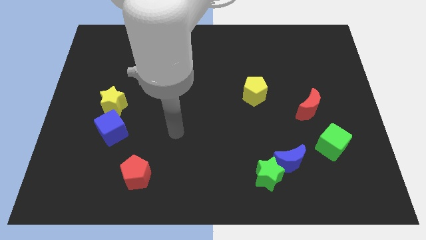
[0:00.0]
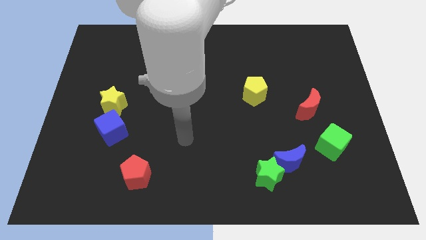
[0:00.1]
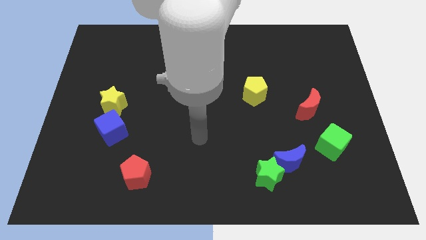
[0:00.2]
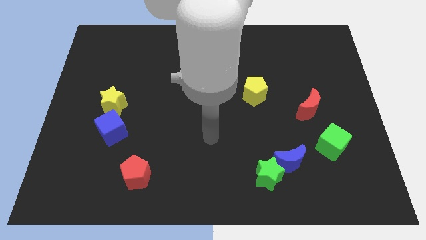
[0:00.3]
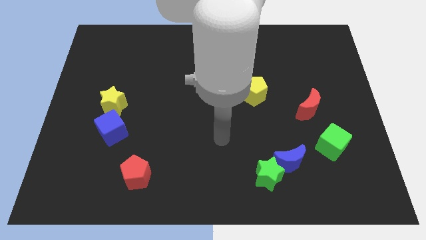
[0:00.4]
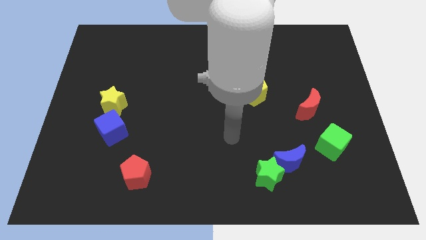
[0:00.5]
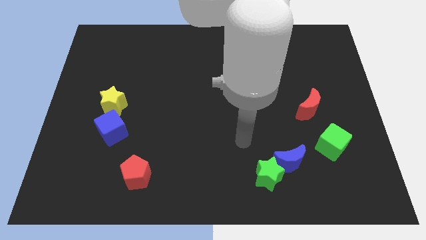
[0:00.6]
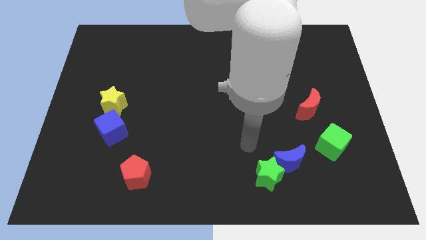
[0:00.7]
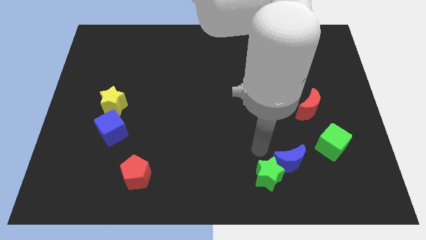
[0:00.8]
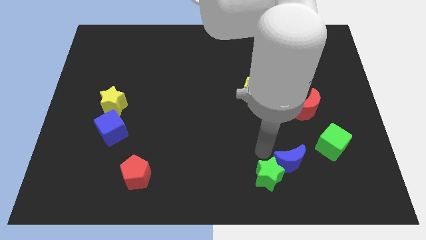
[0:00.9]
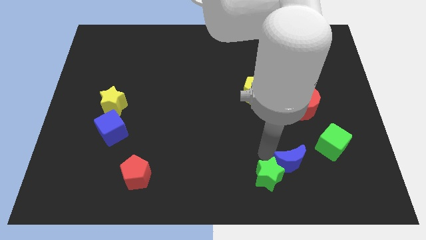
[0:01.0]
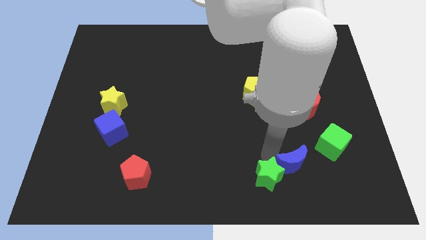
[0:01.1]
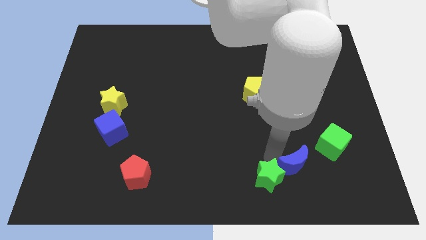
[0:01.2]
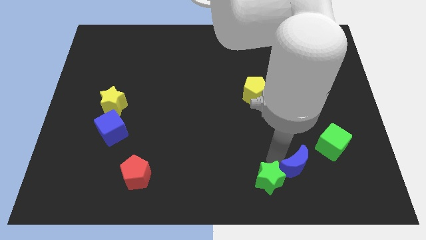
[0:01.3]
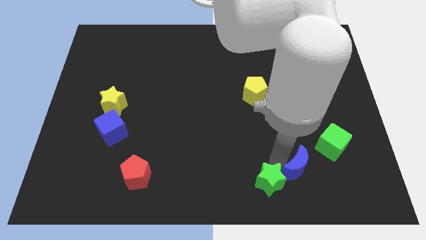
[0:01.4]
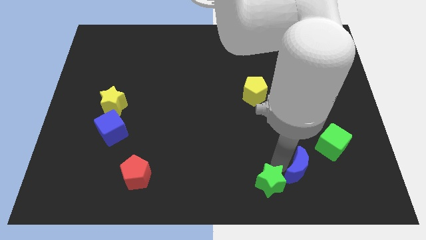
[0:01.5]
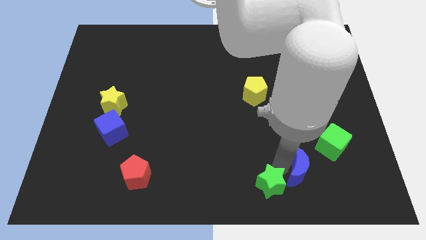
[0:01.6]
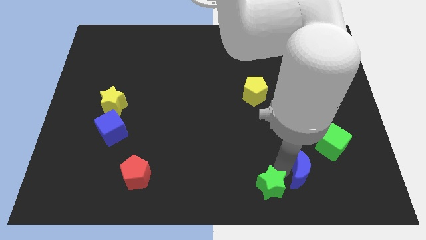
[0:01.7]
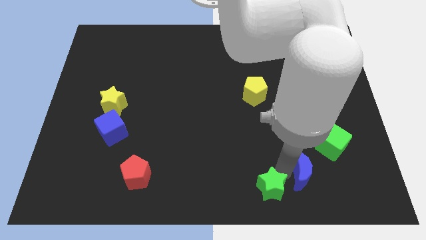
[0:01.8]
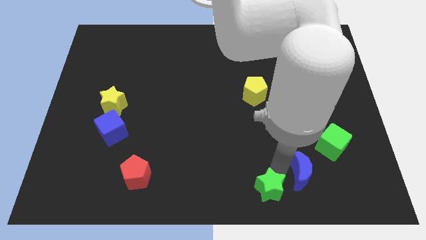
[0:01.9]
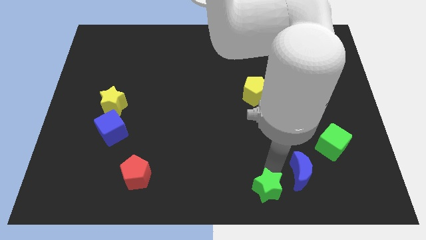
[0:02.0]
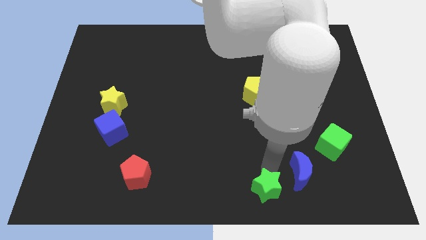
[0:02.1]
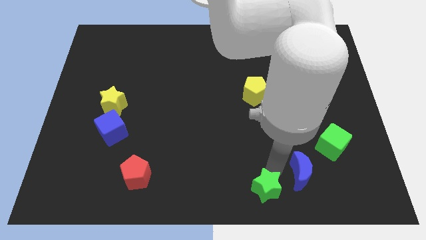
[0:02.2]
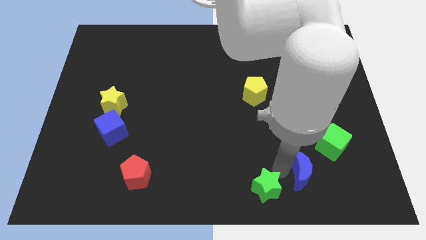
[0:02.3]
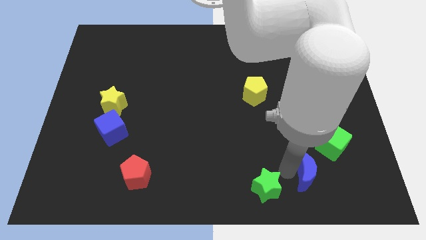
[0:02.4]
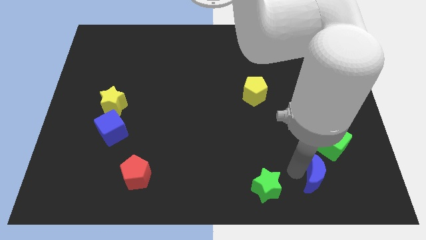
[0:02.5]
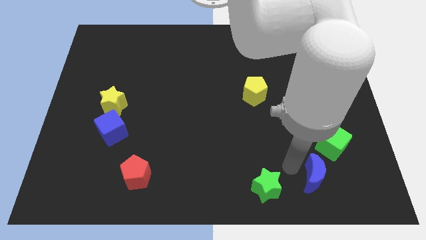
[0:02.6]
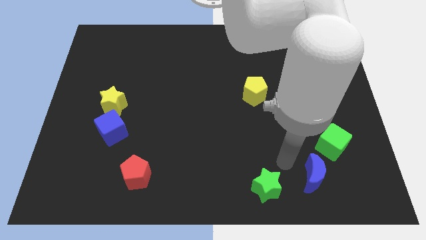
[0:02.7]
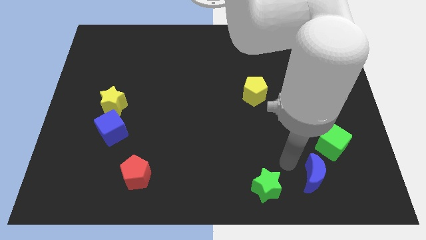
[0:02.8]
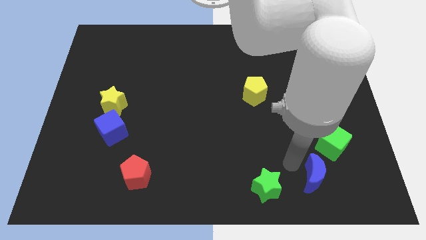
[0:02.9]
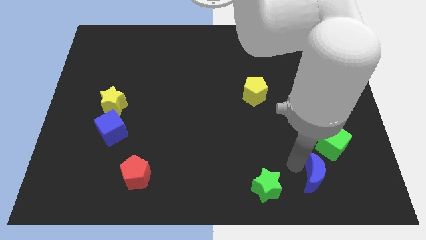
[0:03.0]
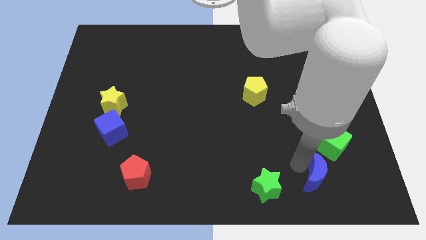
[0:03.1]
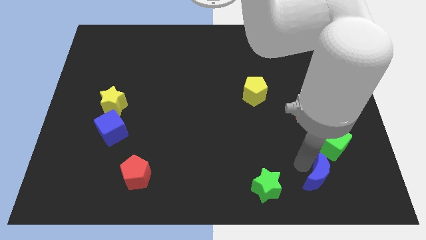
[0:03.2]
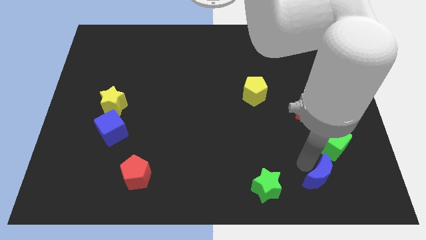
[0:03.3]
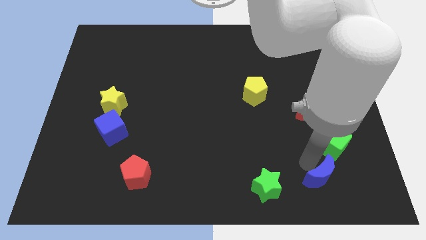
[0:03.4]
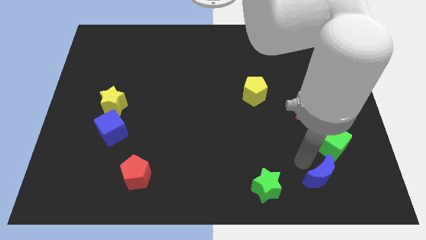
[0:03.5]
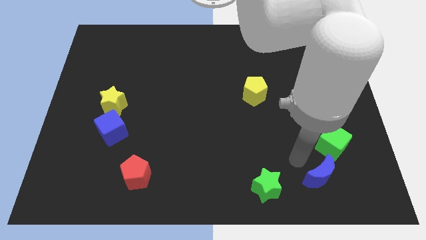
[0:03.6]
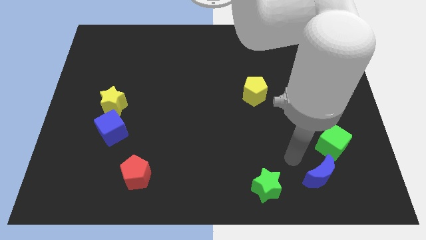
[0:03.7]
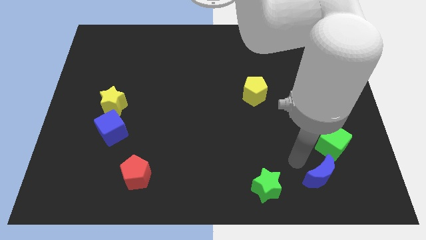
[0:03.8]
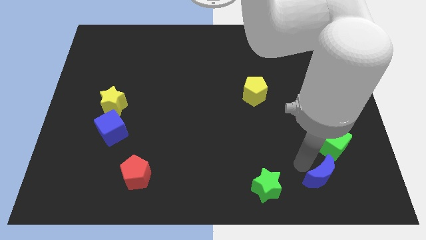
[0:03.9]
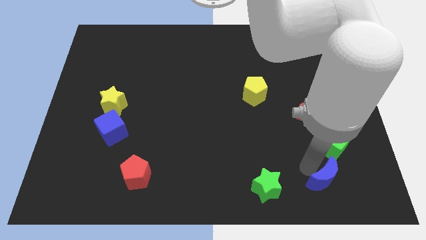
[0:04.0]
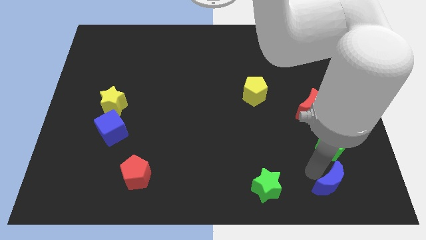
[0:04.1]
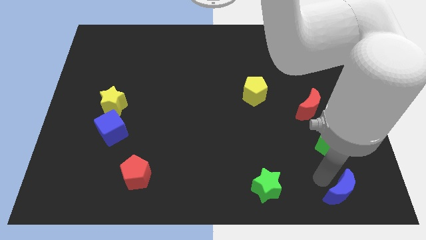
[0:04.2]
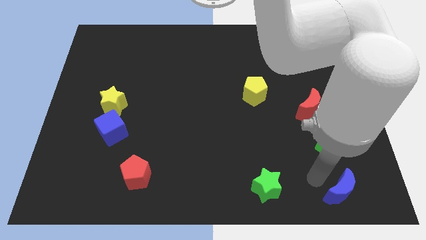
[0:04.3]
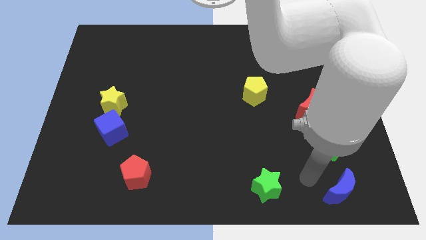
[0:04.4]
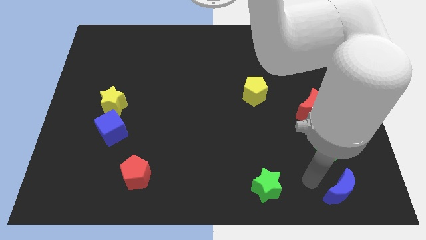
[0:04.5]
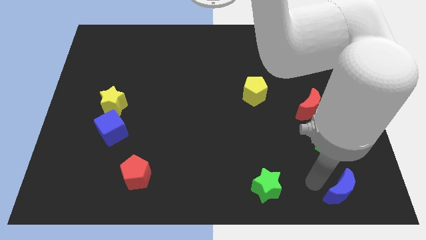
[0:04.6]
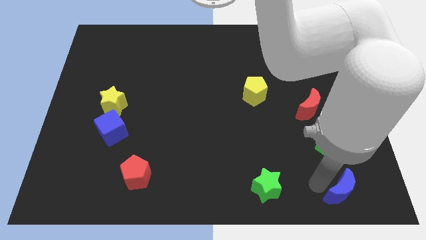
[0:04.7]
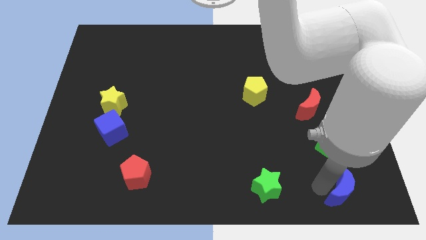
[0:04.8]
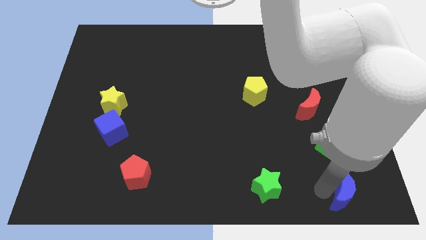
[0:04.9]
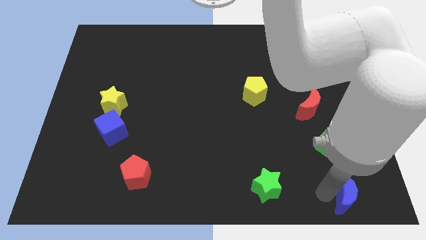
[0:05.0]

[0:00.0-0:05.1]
push the blue moon to the bottom right of the board

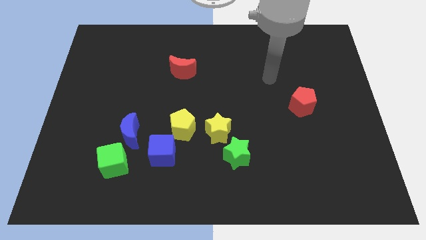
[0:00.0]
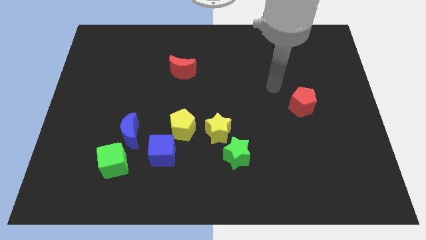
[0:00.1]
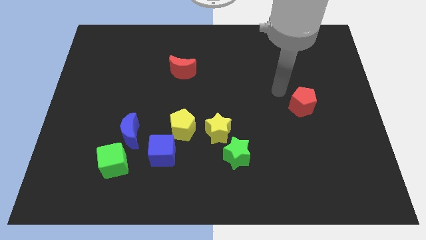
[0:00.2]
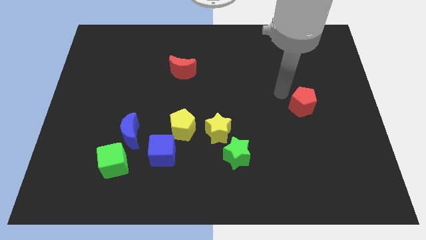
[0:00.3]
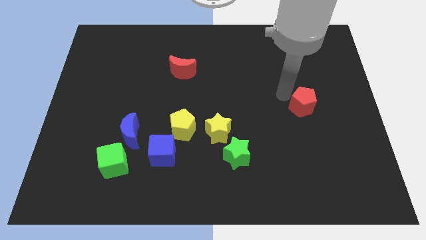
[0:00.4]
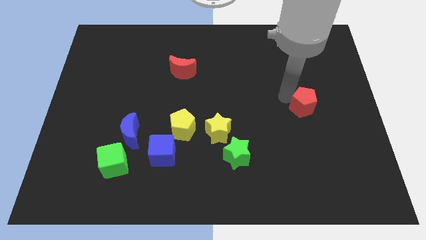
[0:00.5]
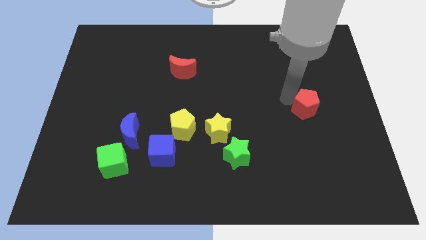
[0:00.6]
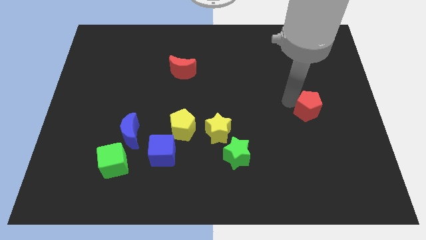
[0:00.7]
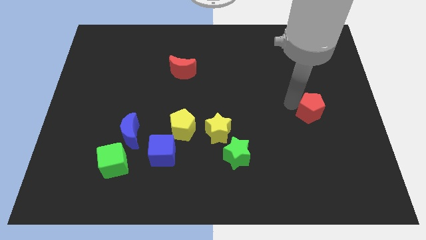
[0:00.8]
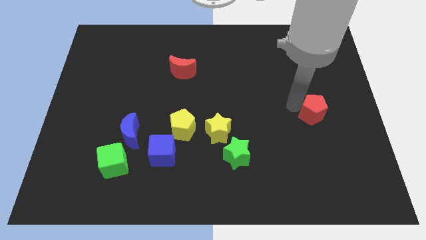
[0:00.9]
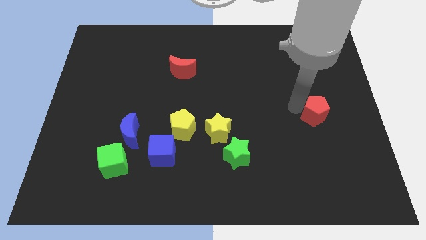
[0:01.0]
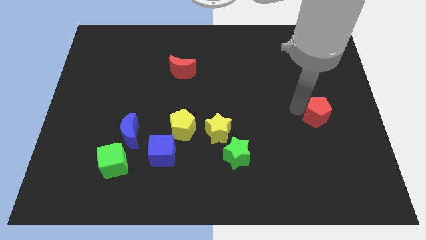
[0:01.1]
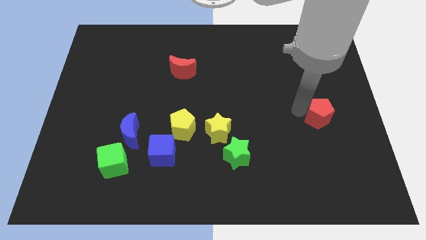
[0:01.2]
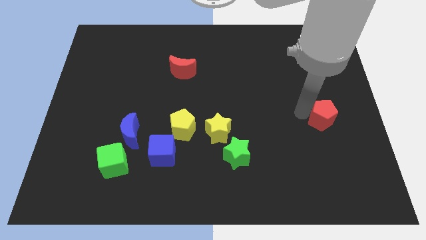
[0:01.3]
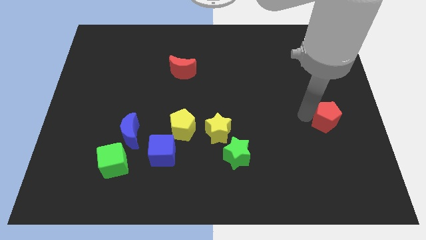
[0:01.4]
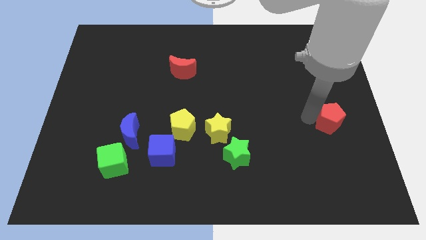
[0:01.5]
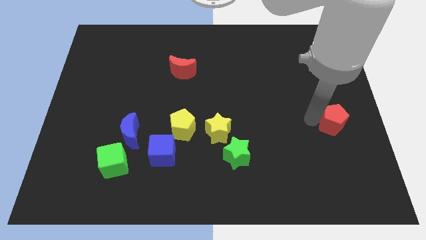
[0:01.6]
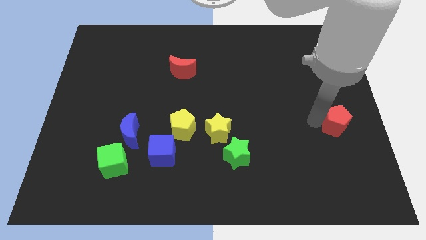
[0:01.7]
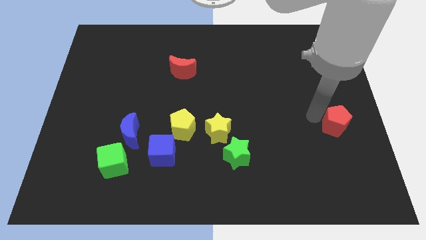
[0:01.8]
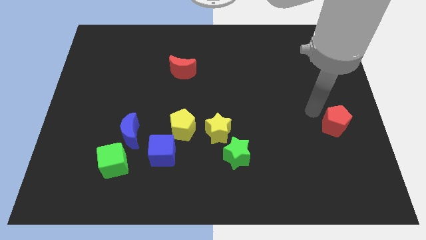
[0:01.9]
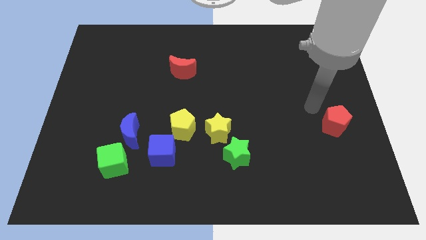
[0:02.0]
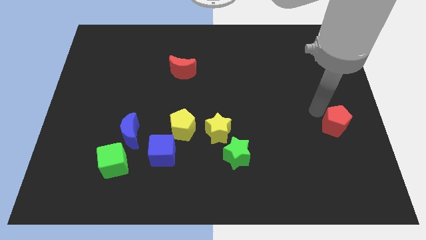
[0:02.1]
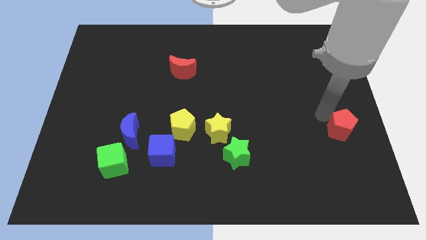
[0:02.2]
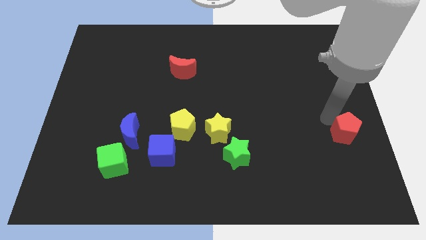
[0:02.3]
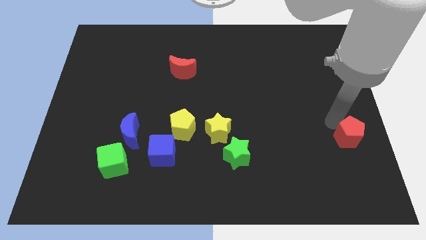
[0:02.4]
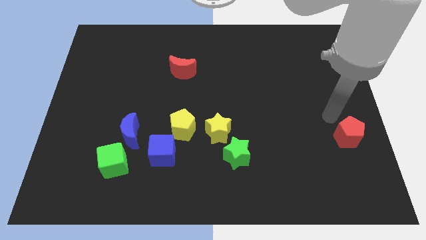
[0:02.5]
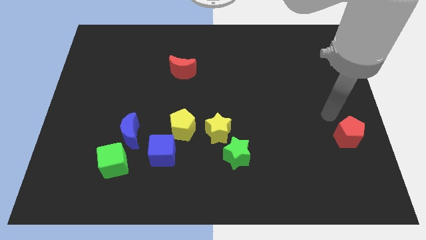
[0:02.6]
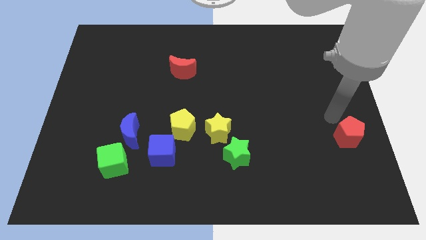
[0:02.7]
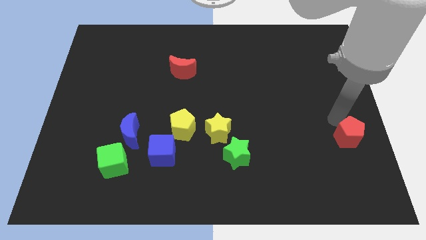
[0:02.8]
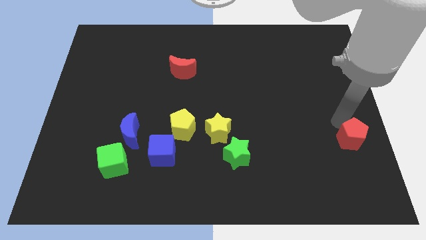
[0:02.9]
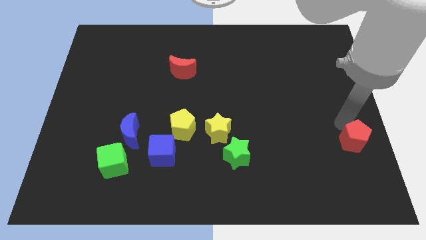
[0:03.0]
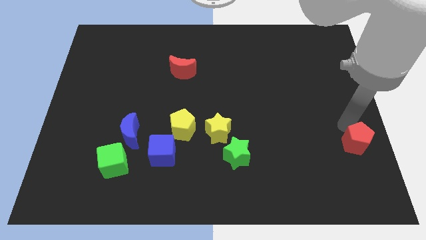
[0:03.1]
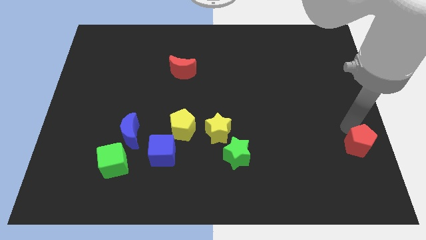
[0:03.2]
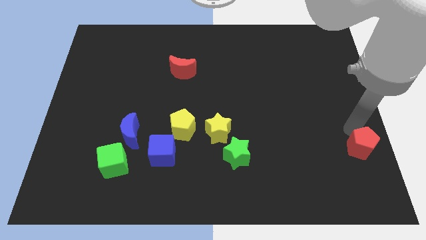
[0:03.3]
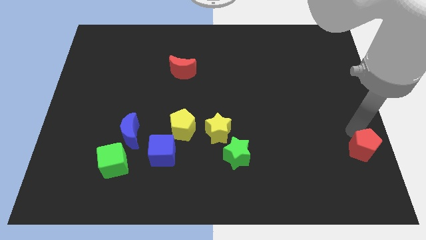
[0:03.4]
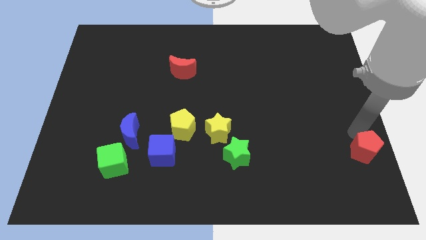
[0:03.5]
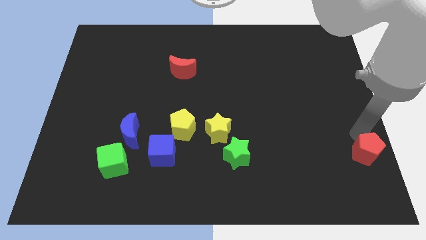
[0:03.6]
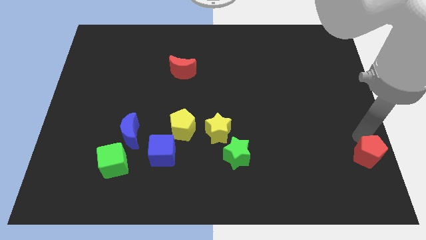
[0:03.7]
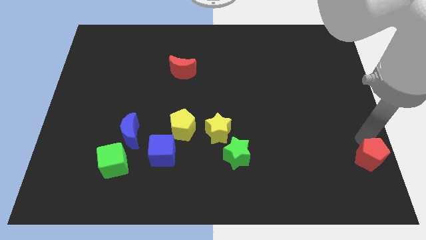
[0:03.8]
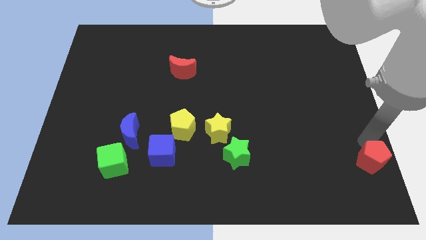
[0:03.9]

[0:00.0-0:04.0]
push the red pentagon to the bottom right corner
